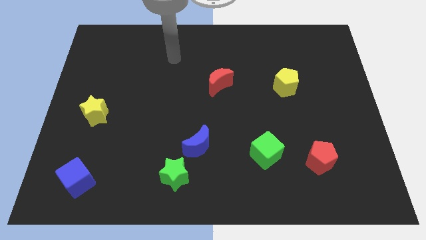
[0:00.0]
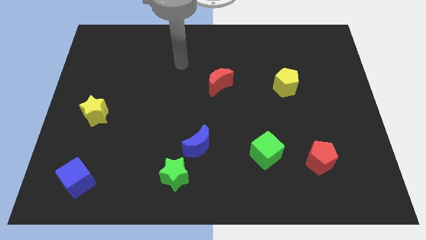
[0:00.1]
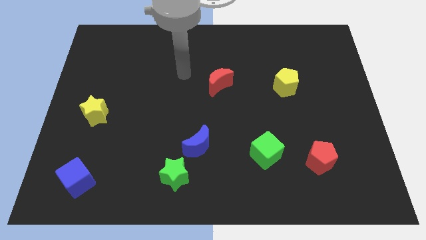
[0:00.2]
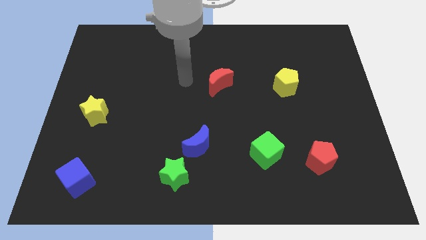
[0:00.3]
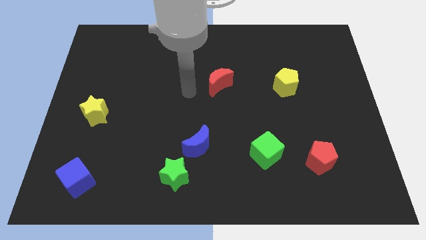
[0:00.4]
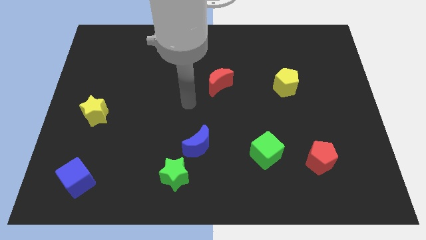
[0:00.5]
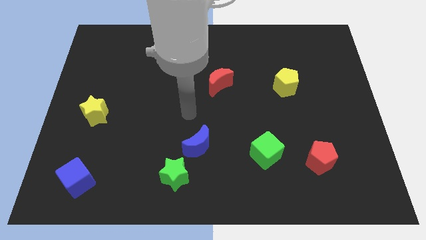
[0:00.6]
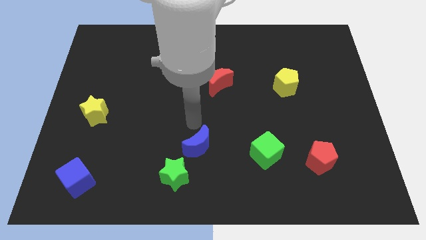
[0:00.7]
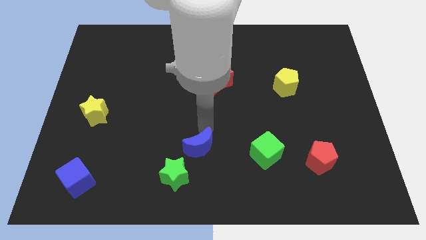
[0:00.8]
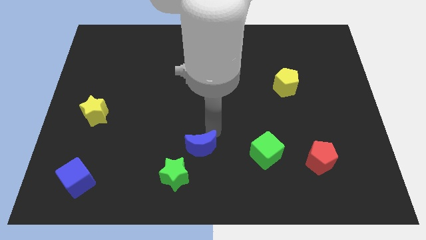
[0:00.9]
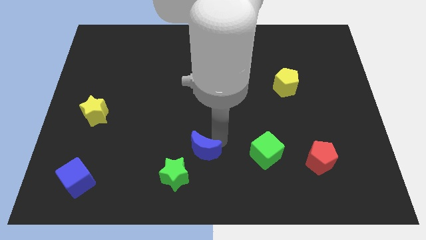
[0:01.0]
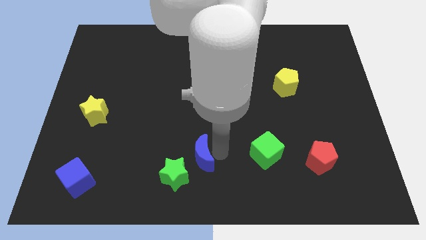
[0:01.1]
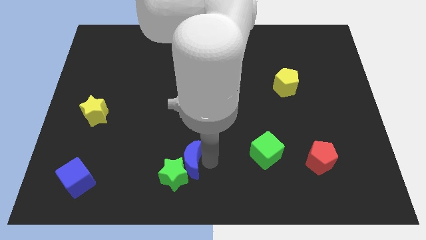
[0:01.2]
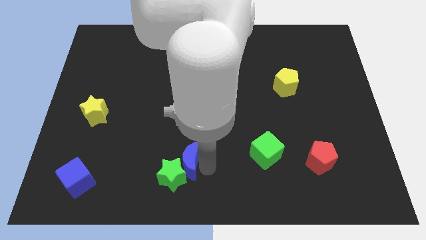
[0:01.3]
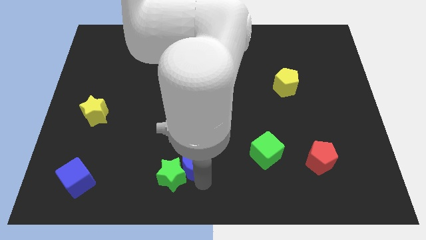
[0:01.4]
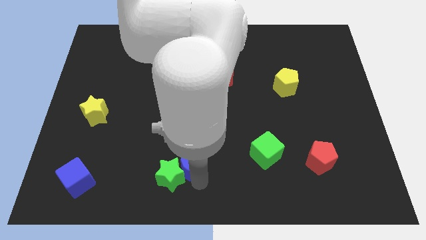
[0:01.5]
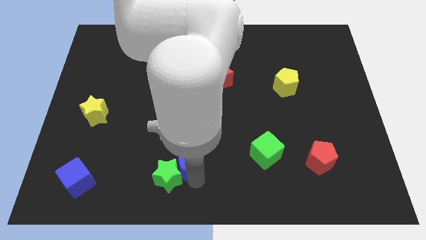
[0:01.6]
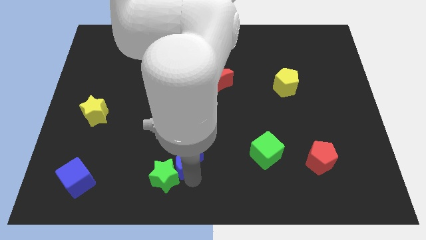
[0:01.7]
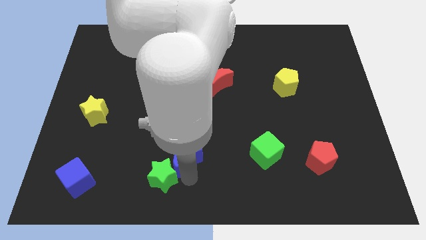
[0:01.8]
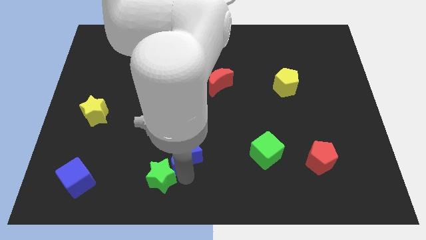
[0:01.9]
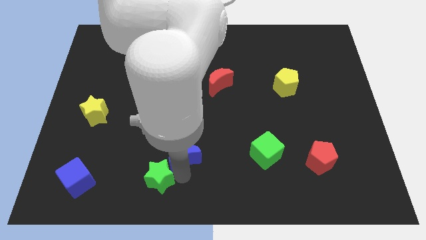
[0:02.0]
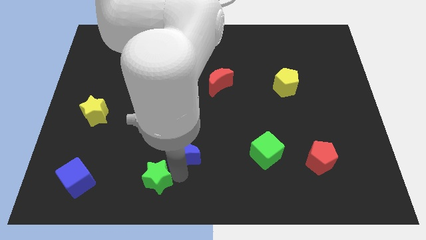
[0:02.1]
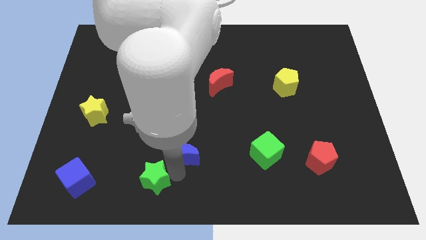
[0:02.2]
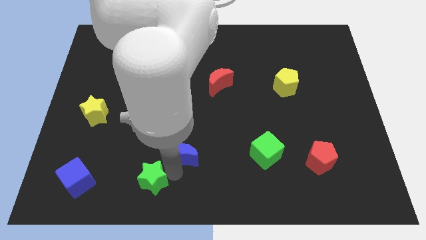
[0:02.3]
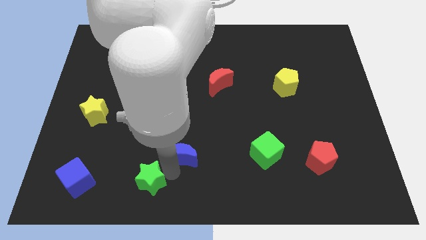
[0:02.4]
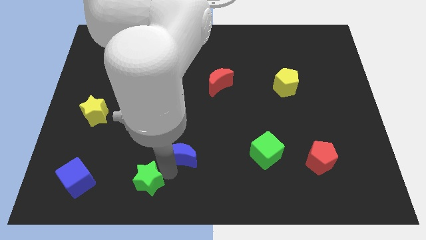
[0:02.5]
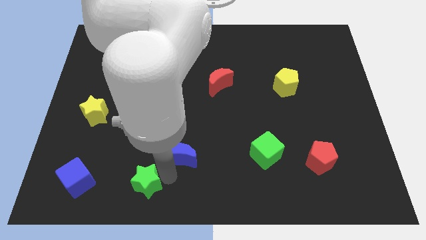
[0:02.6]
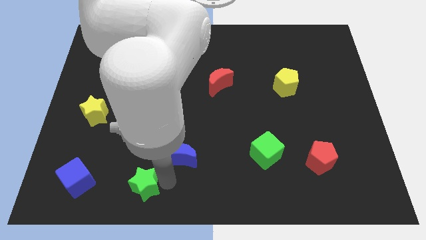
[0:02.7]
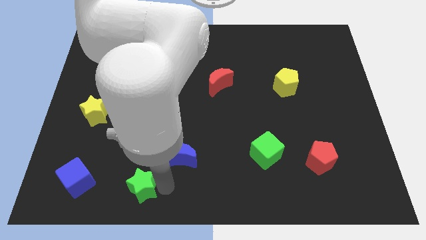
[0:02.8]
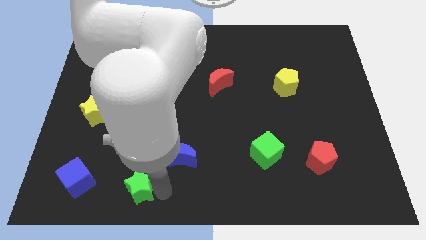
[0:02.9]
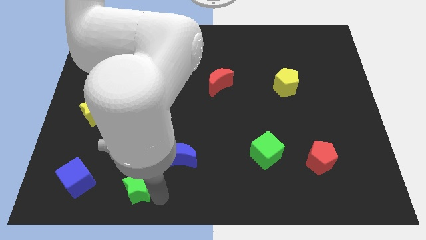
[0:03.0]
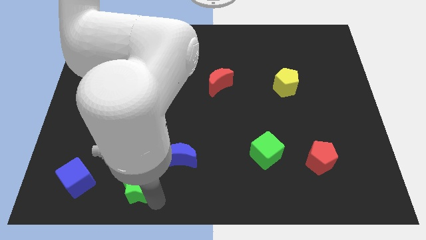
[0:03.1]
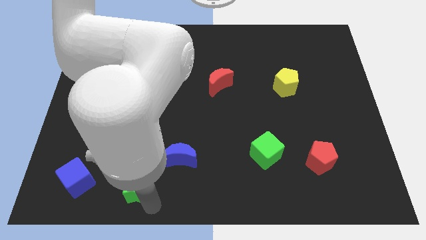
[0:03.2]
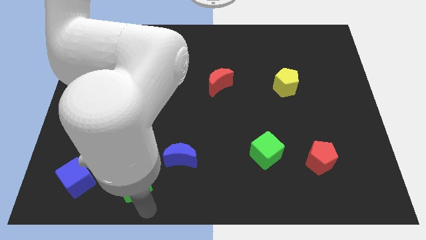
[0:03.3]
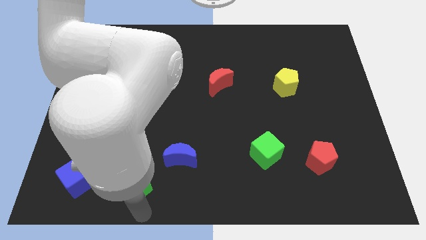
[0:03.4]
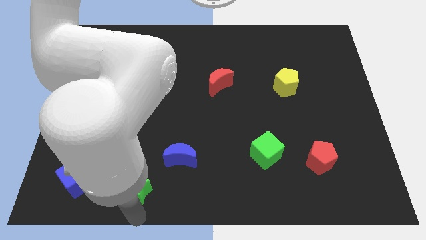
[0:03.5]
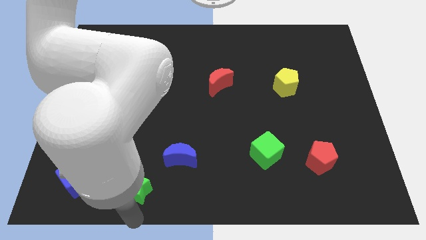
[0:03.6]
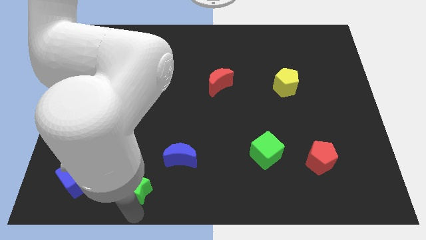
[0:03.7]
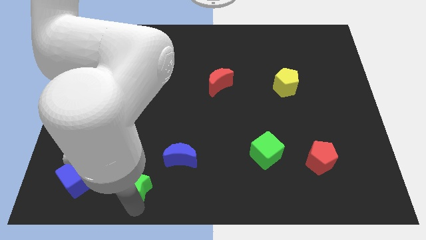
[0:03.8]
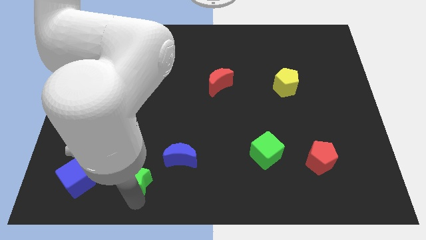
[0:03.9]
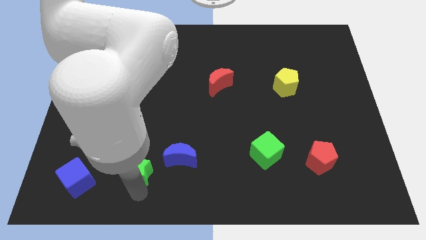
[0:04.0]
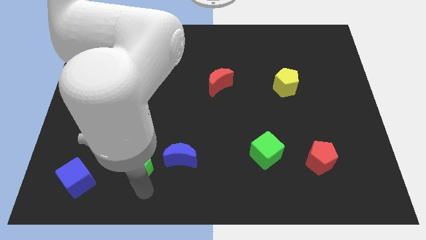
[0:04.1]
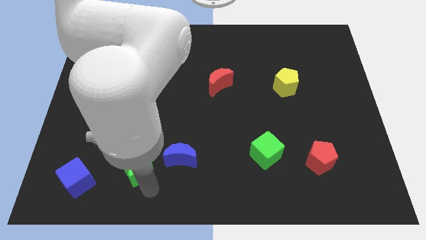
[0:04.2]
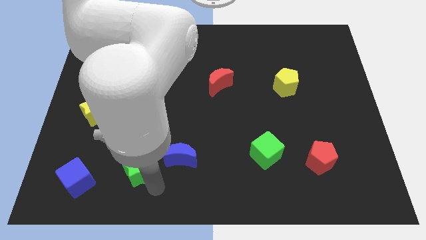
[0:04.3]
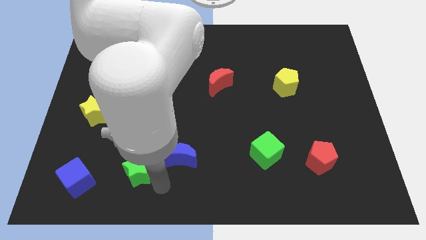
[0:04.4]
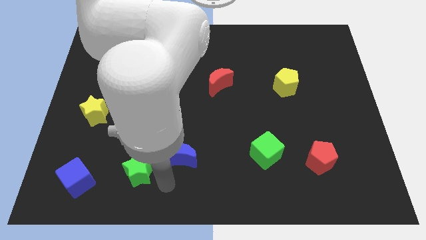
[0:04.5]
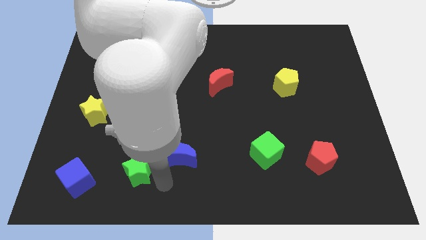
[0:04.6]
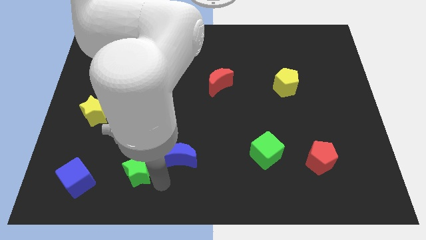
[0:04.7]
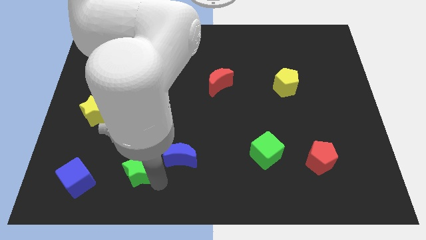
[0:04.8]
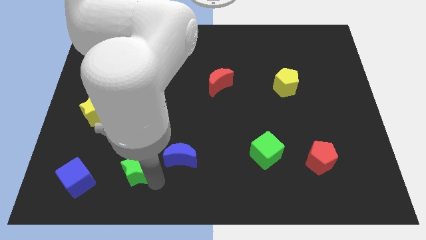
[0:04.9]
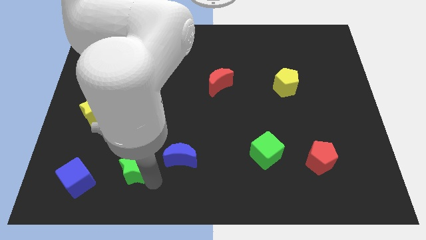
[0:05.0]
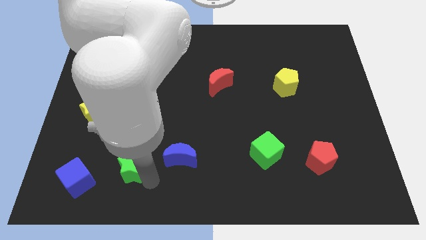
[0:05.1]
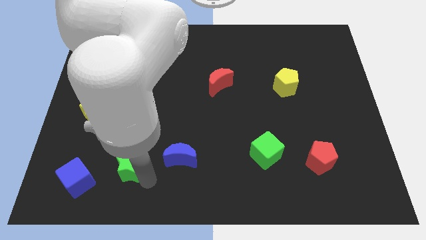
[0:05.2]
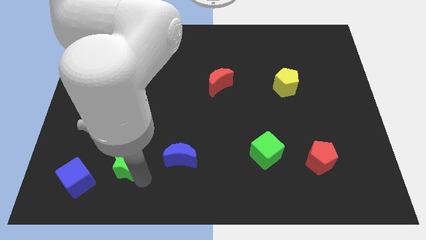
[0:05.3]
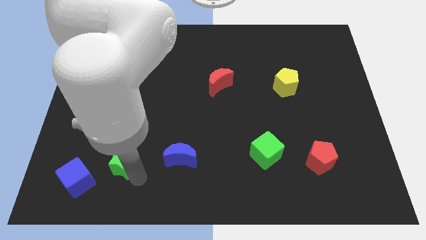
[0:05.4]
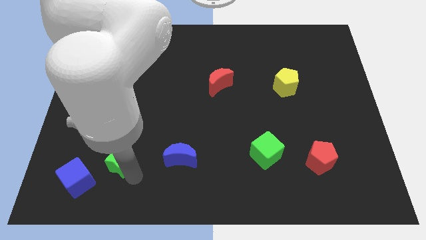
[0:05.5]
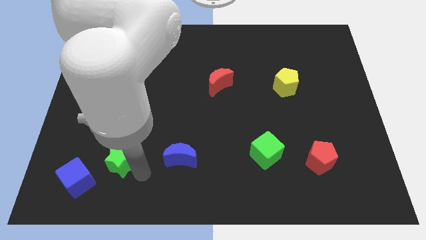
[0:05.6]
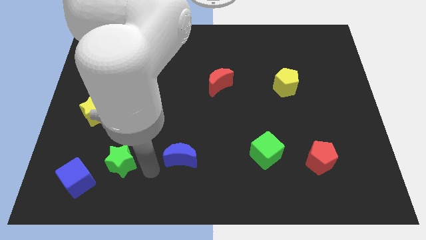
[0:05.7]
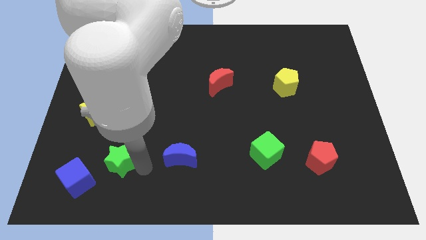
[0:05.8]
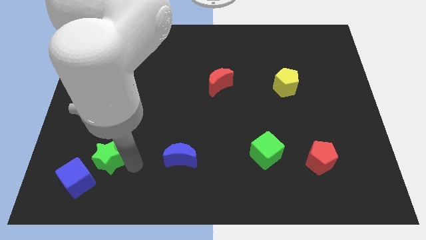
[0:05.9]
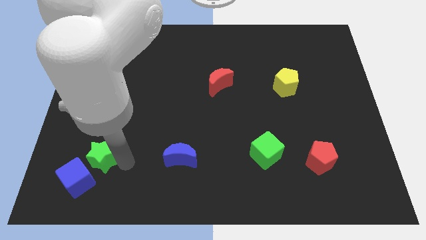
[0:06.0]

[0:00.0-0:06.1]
put the green star to the bottom of the yellow star

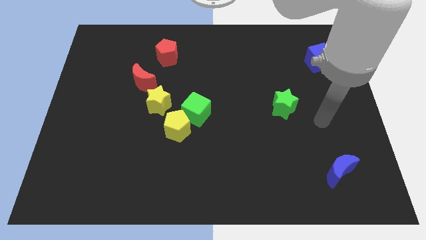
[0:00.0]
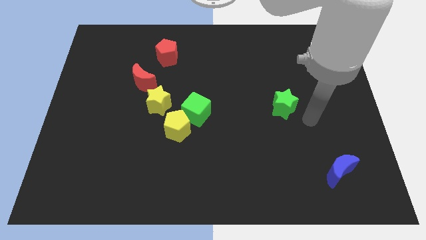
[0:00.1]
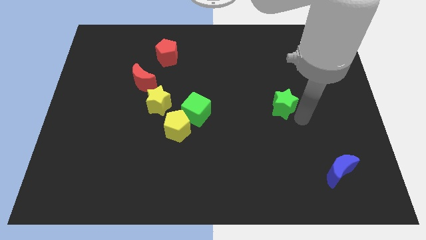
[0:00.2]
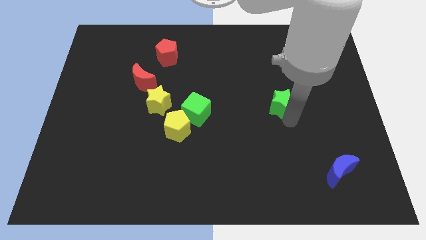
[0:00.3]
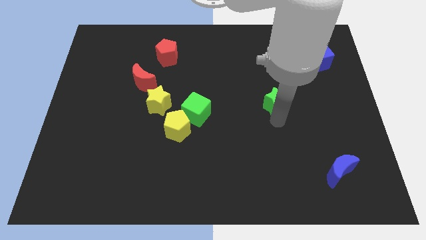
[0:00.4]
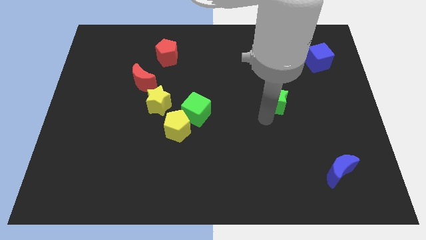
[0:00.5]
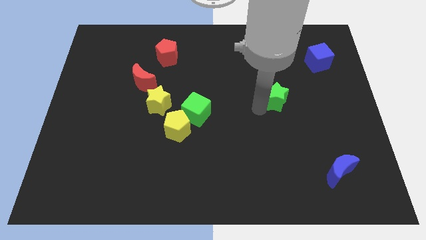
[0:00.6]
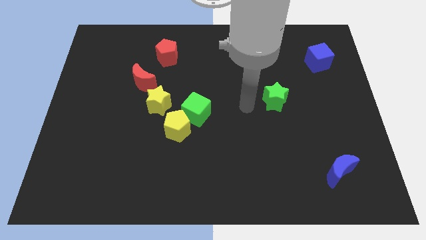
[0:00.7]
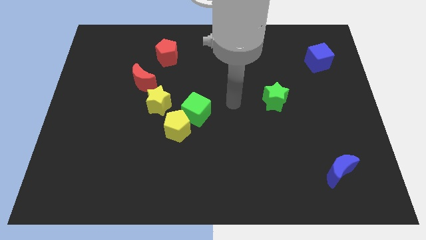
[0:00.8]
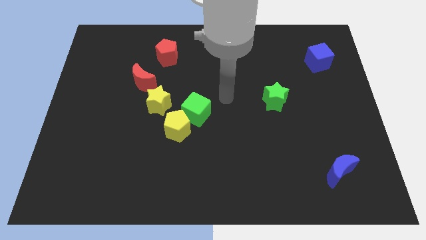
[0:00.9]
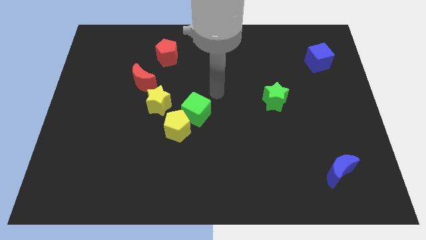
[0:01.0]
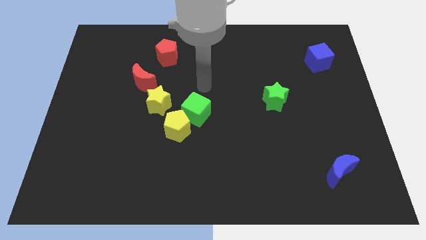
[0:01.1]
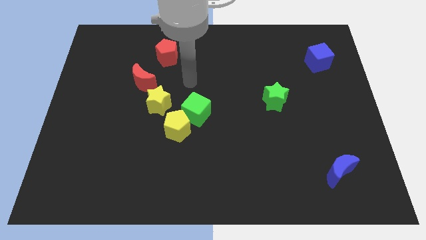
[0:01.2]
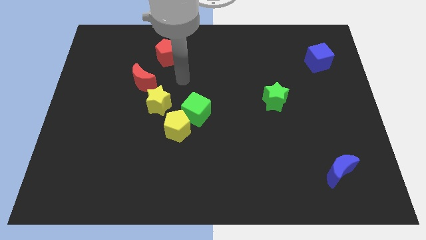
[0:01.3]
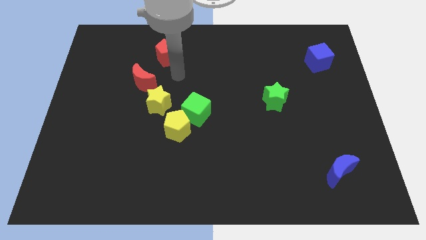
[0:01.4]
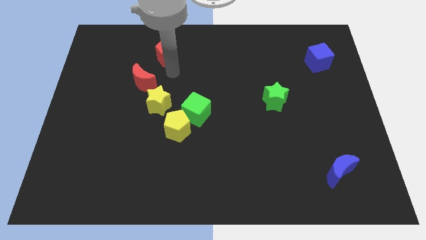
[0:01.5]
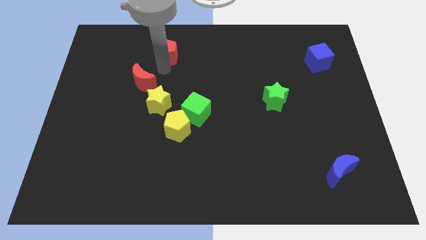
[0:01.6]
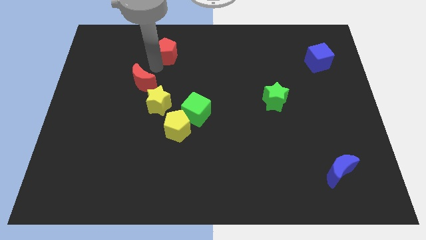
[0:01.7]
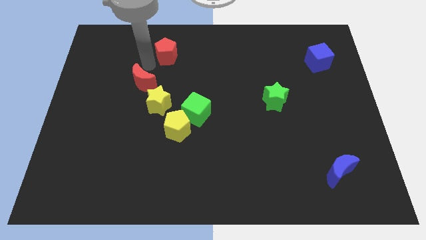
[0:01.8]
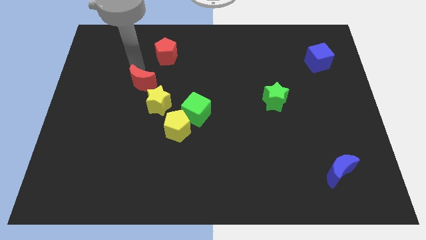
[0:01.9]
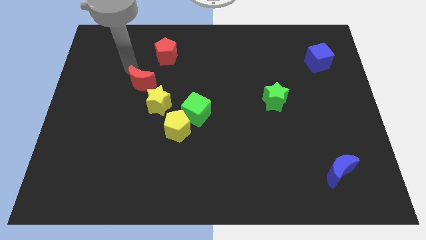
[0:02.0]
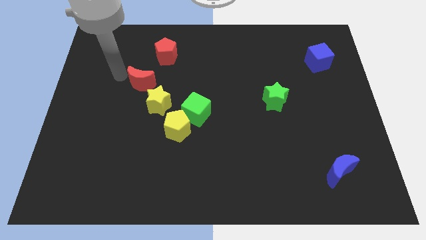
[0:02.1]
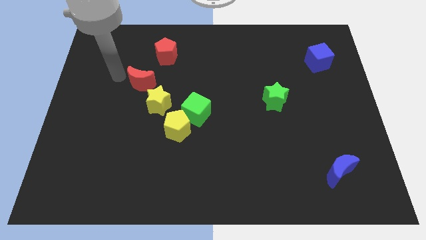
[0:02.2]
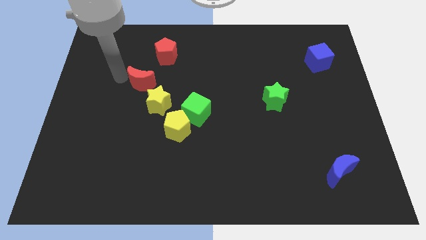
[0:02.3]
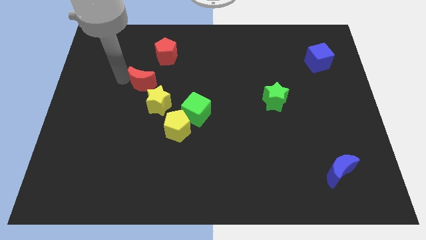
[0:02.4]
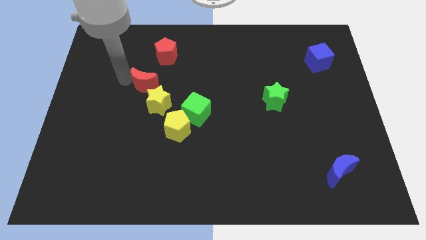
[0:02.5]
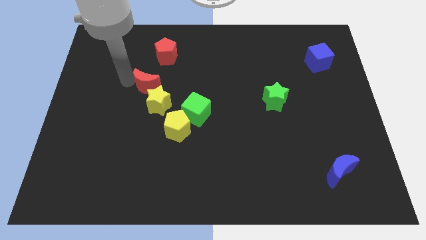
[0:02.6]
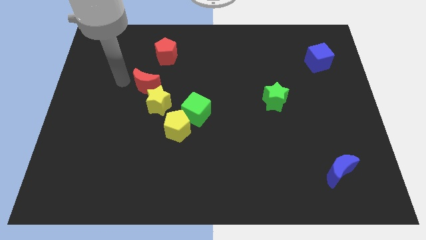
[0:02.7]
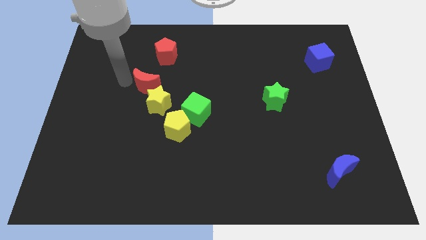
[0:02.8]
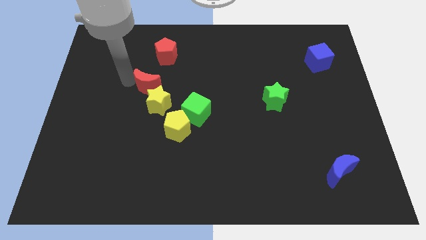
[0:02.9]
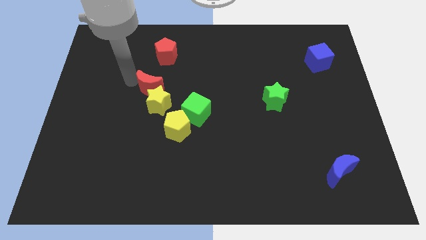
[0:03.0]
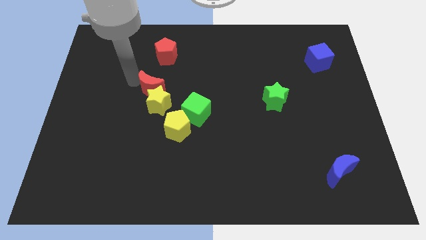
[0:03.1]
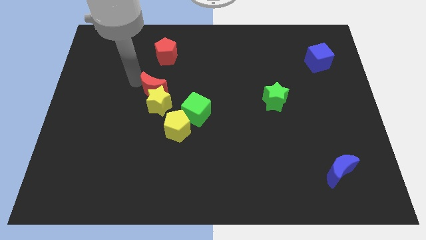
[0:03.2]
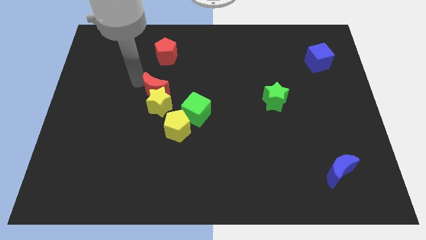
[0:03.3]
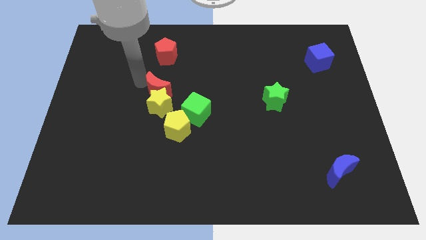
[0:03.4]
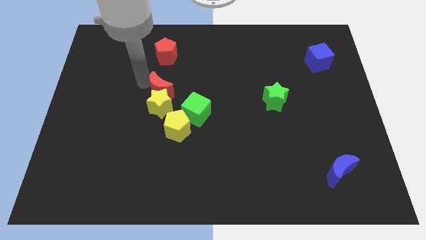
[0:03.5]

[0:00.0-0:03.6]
push the red moon above the yellow pentagon
